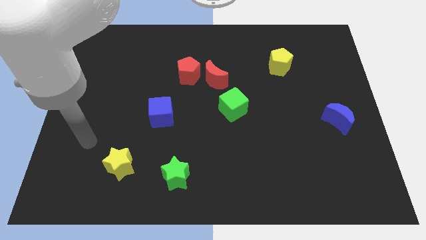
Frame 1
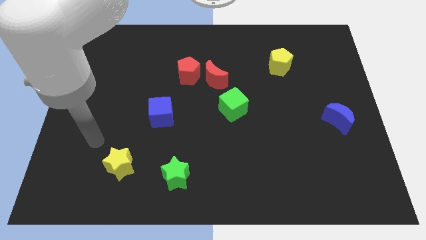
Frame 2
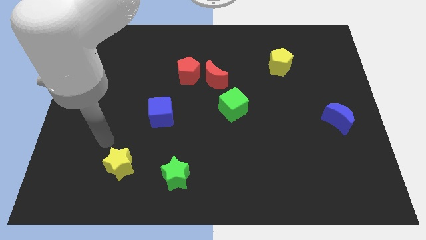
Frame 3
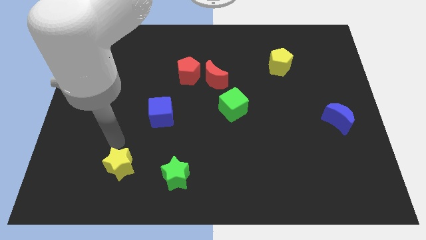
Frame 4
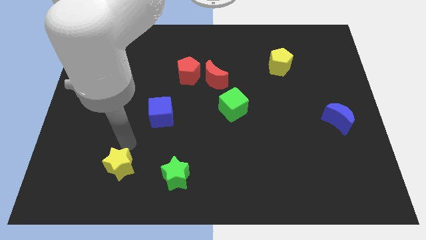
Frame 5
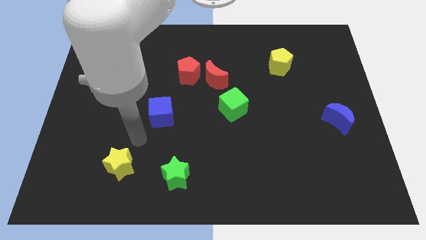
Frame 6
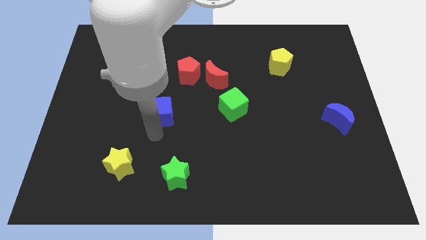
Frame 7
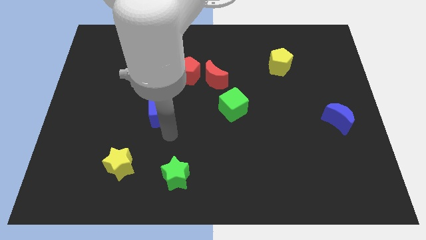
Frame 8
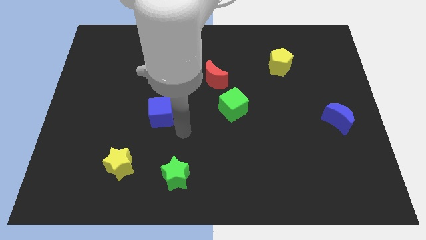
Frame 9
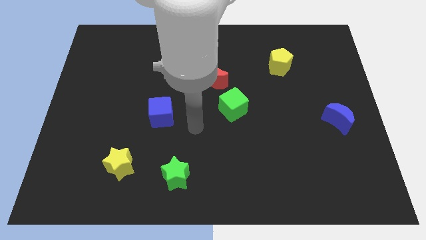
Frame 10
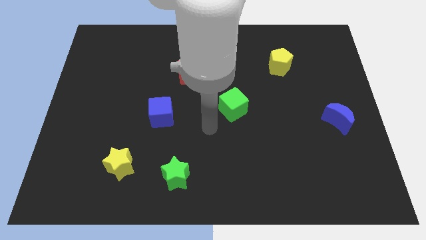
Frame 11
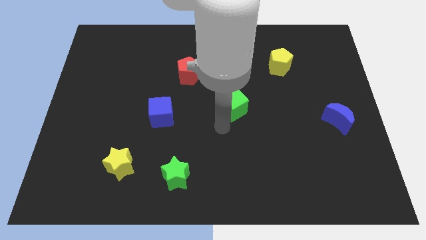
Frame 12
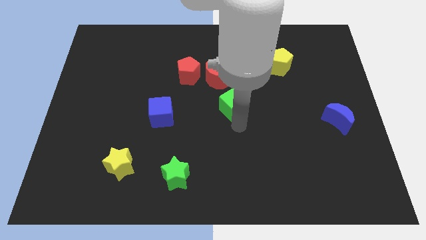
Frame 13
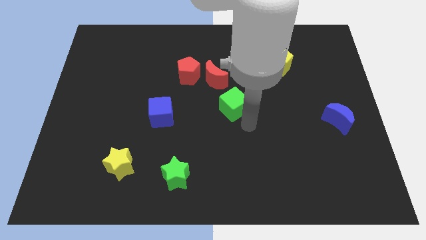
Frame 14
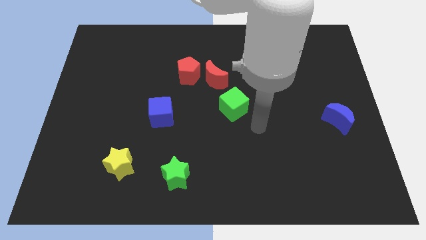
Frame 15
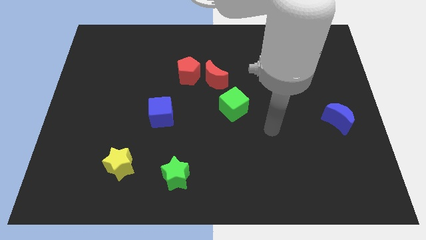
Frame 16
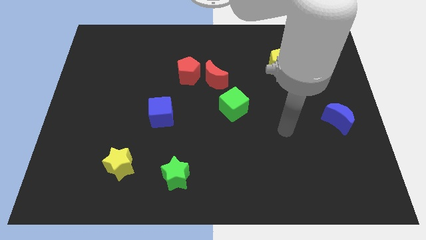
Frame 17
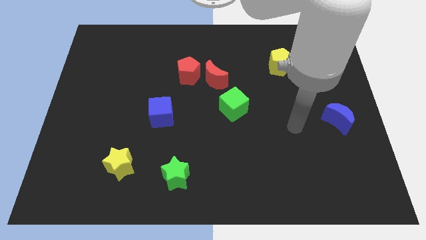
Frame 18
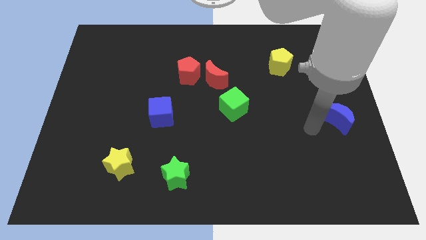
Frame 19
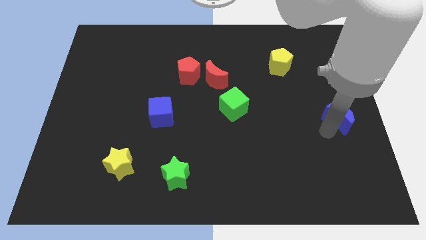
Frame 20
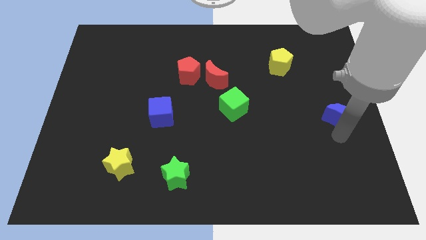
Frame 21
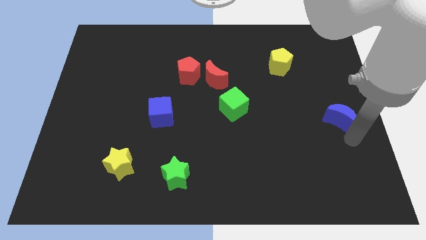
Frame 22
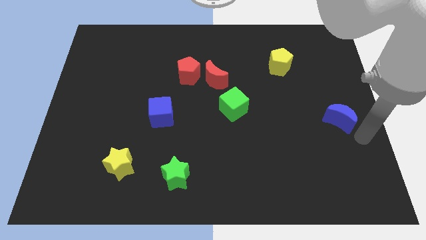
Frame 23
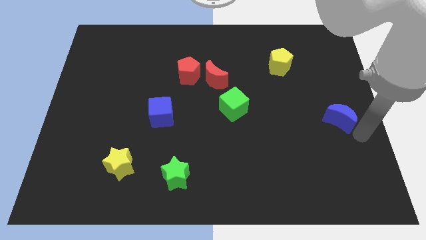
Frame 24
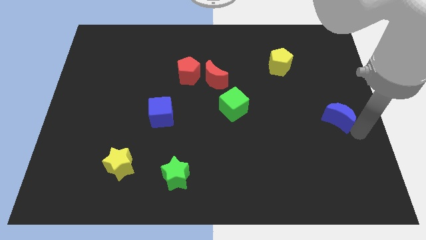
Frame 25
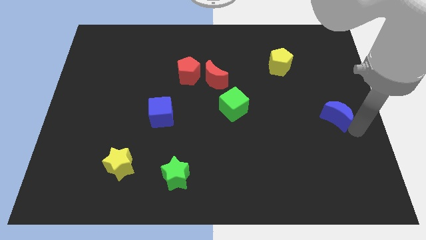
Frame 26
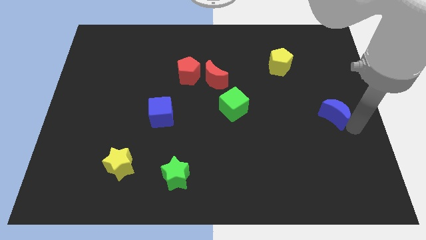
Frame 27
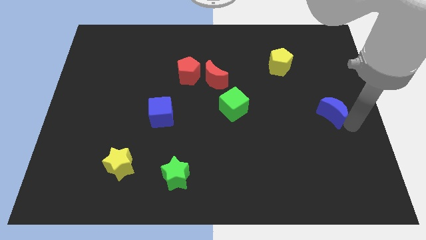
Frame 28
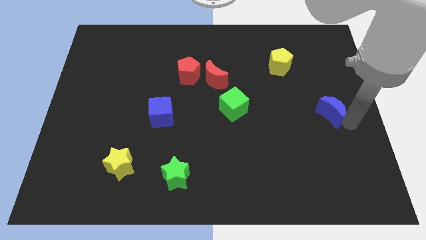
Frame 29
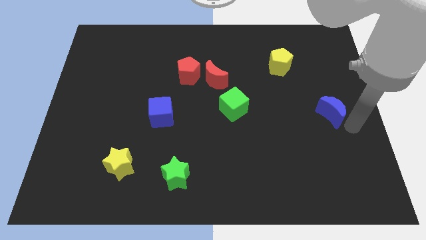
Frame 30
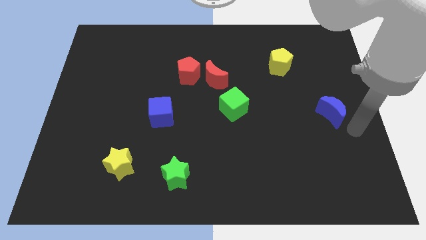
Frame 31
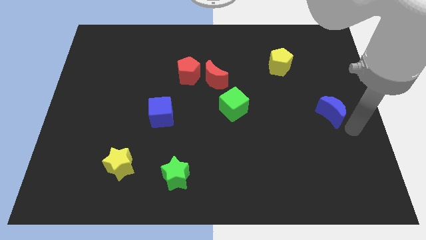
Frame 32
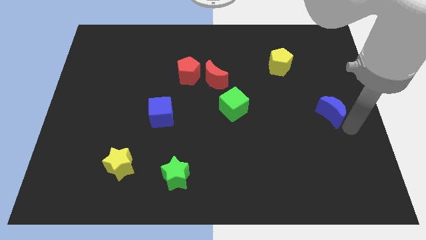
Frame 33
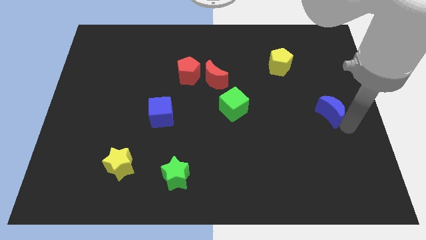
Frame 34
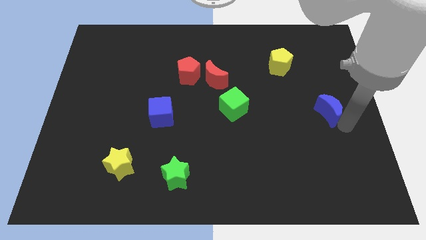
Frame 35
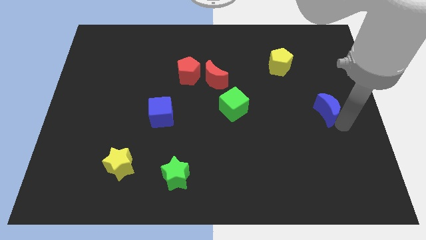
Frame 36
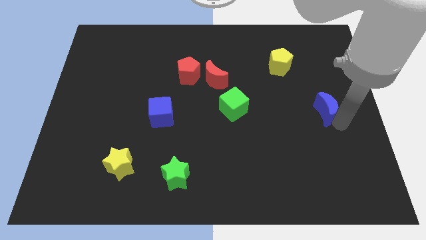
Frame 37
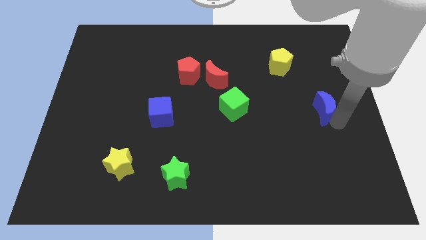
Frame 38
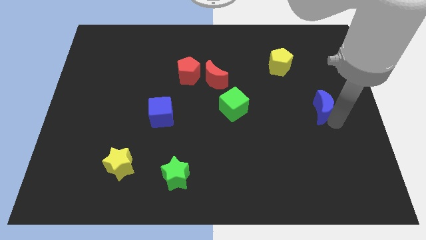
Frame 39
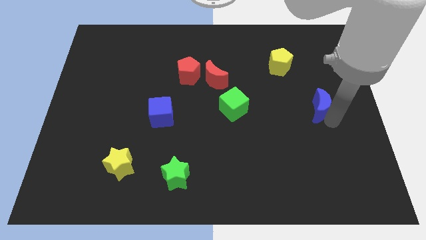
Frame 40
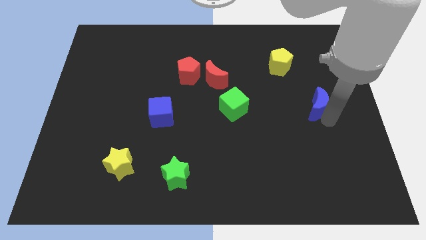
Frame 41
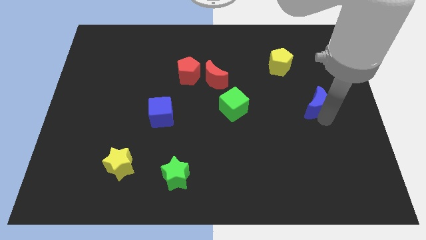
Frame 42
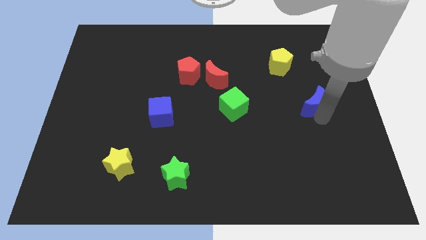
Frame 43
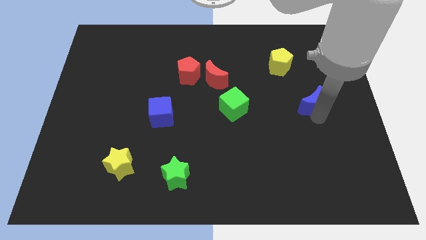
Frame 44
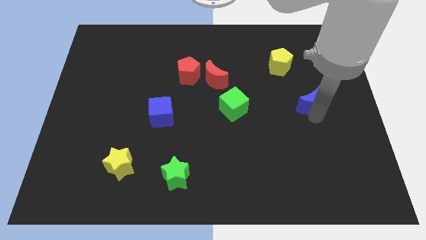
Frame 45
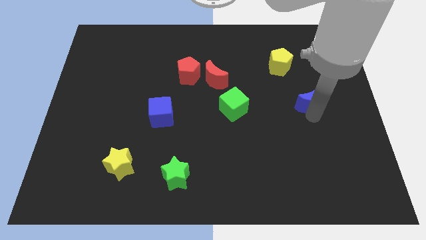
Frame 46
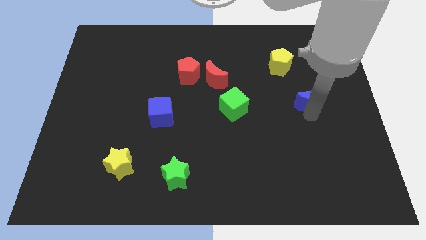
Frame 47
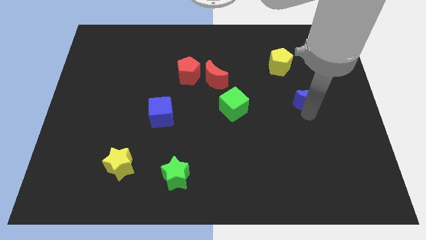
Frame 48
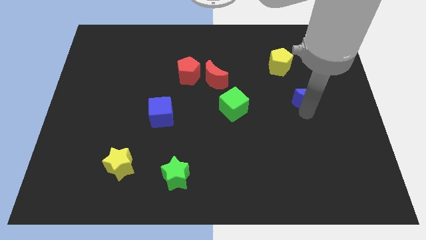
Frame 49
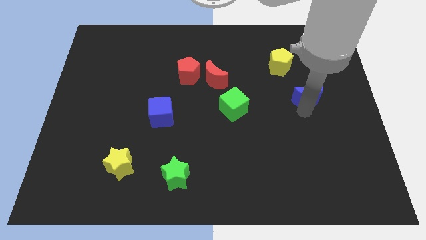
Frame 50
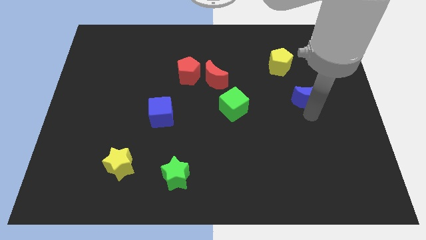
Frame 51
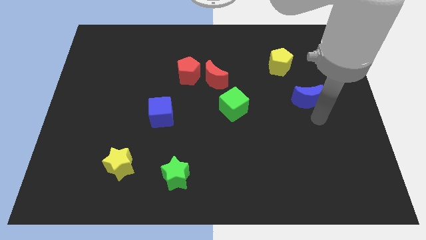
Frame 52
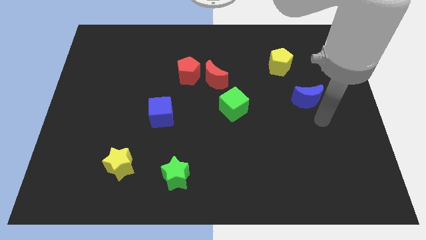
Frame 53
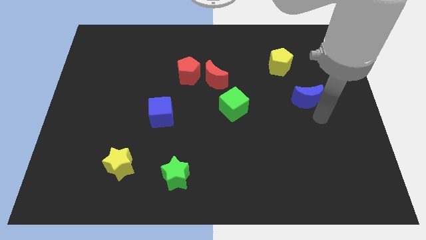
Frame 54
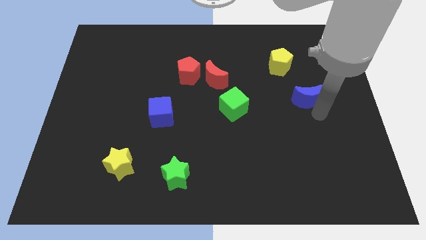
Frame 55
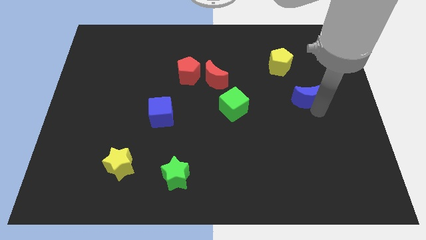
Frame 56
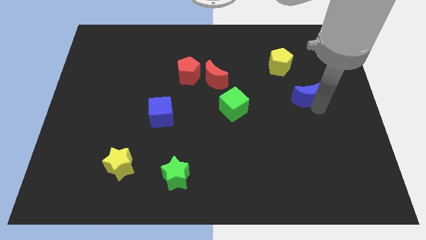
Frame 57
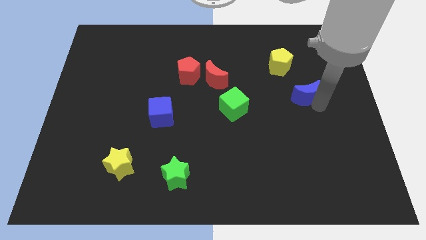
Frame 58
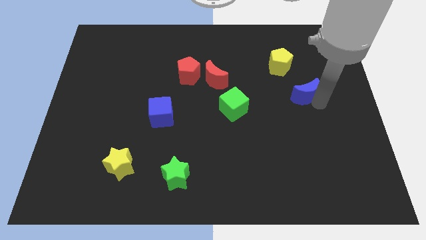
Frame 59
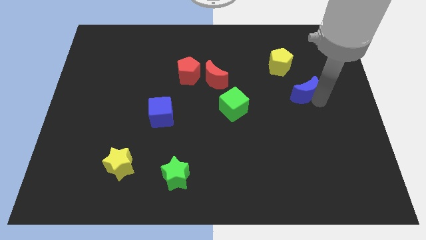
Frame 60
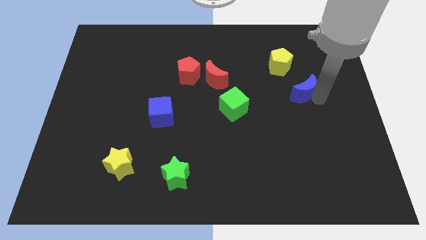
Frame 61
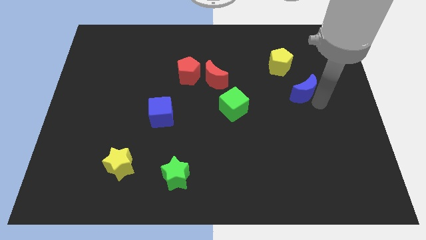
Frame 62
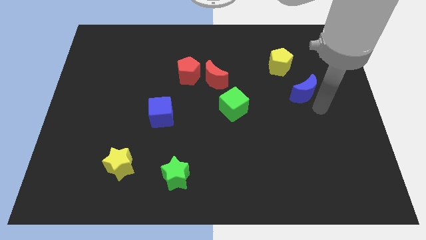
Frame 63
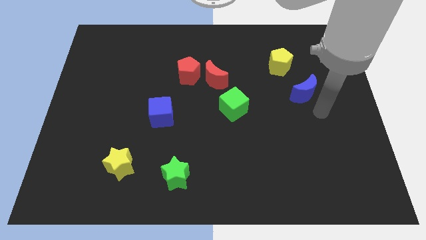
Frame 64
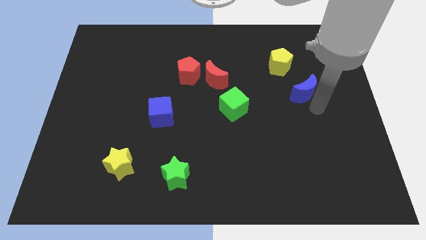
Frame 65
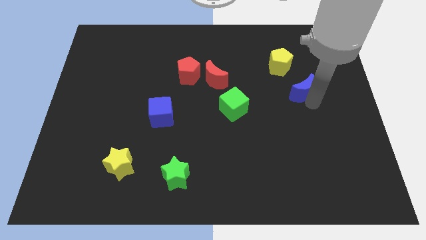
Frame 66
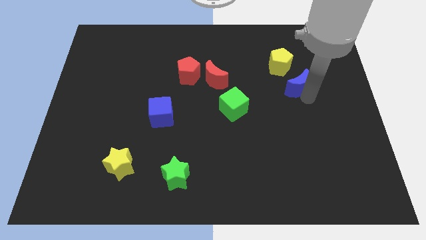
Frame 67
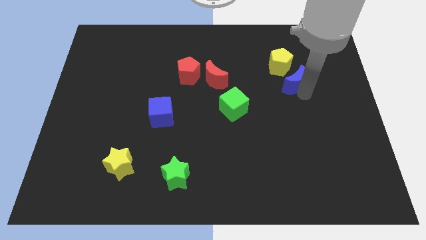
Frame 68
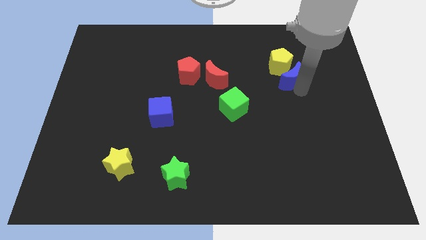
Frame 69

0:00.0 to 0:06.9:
push the blue moon to the yellow pentagon
